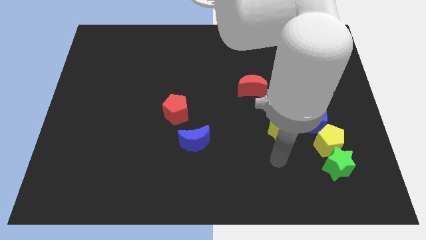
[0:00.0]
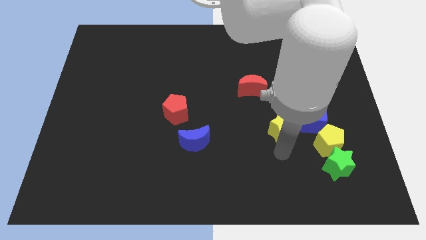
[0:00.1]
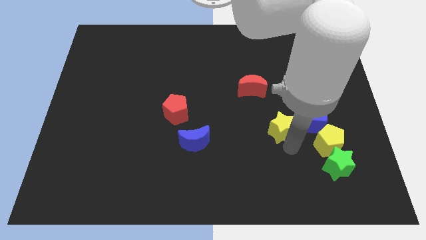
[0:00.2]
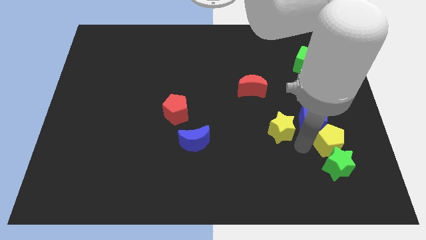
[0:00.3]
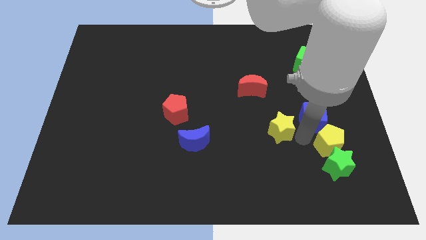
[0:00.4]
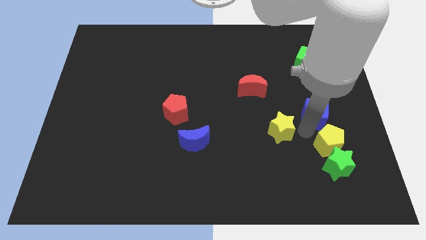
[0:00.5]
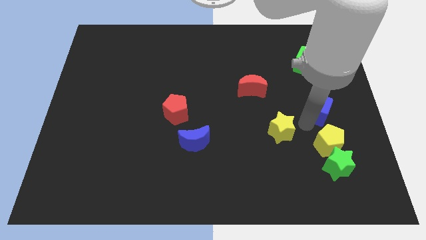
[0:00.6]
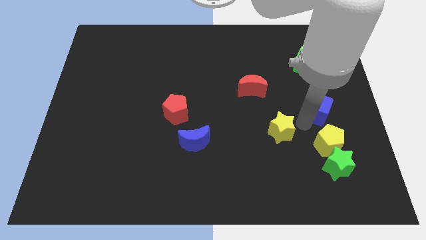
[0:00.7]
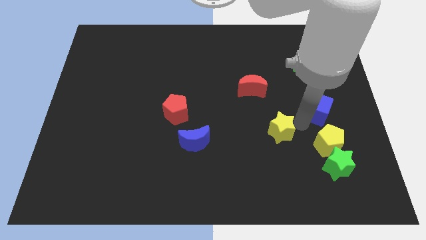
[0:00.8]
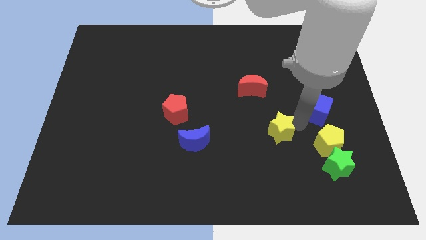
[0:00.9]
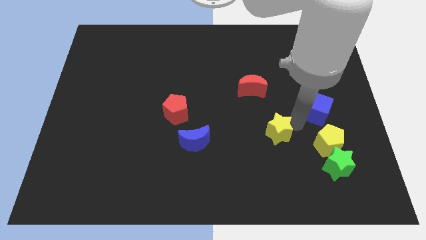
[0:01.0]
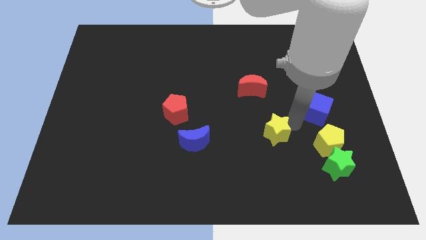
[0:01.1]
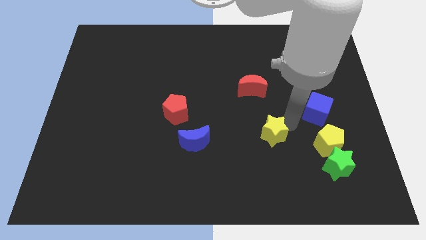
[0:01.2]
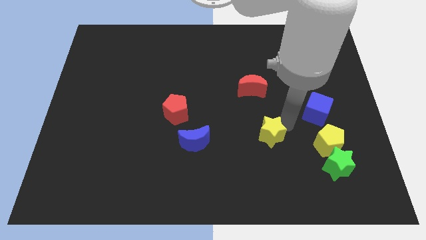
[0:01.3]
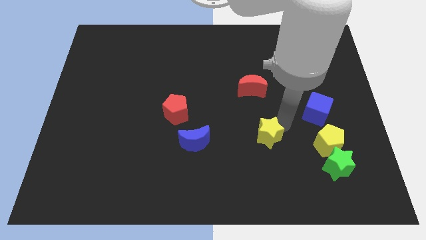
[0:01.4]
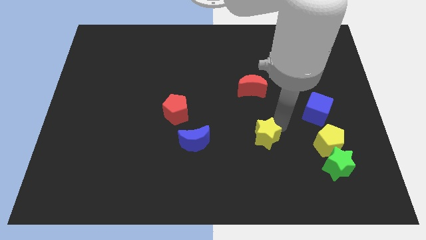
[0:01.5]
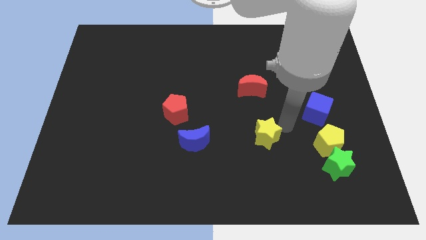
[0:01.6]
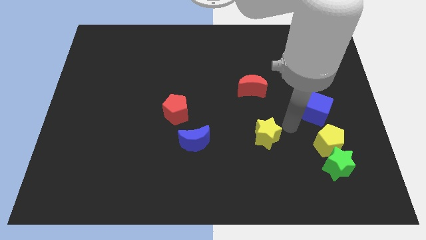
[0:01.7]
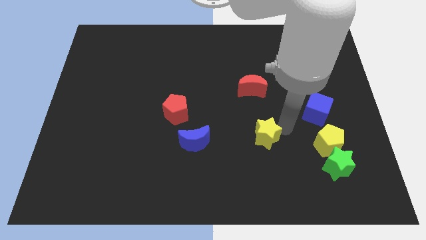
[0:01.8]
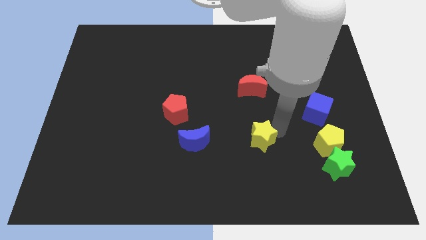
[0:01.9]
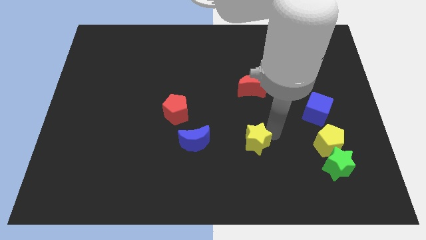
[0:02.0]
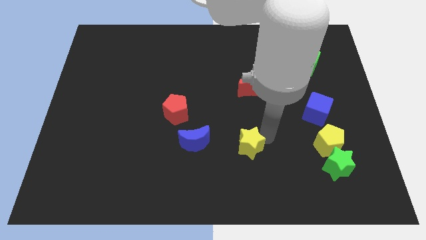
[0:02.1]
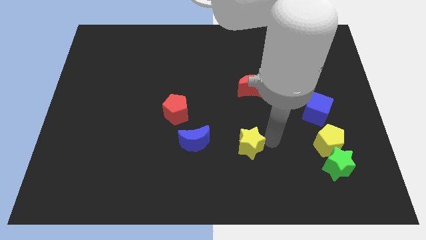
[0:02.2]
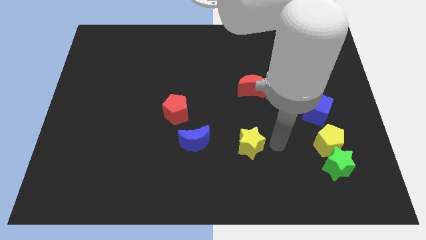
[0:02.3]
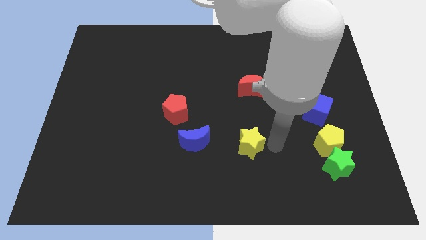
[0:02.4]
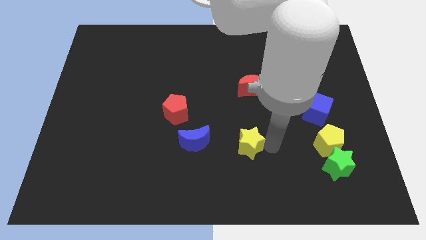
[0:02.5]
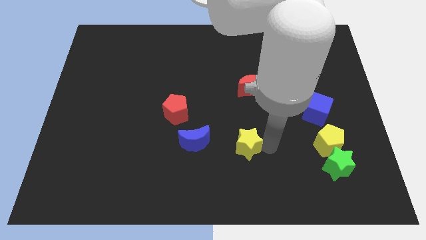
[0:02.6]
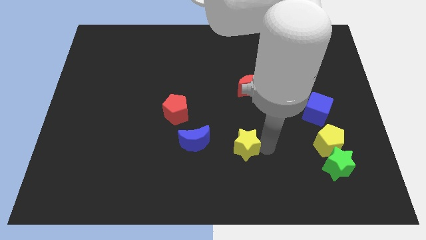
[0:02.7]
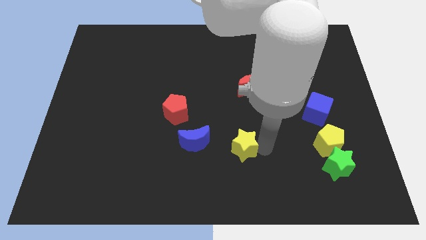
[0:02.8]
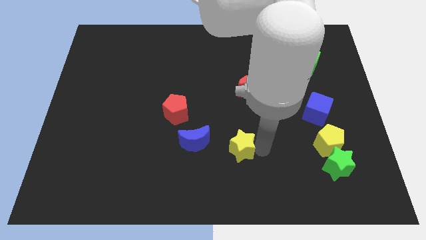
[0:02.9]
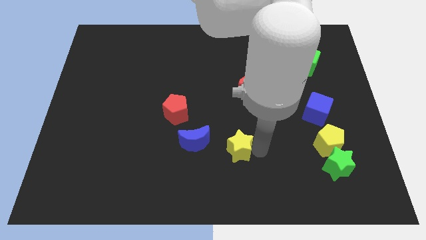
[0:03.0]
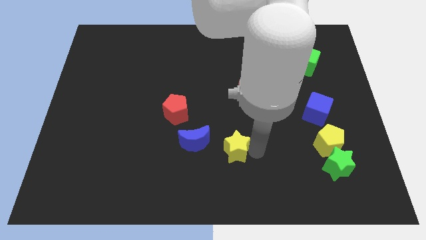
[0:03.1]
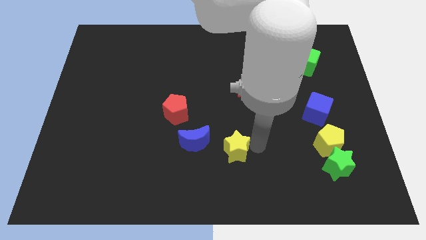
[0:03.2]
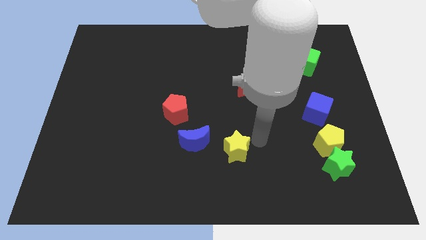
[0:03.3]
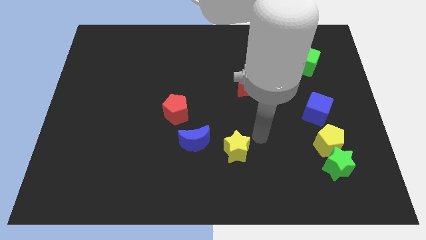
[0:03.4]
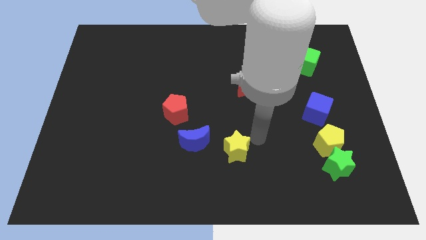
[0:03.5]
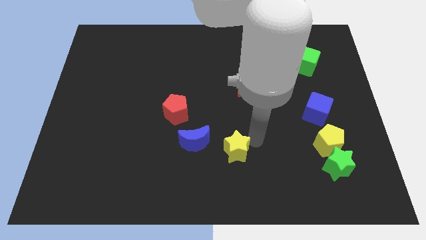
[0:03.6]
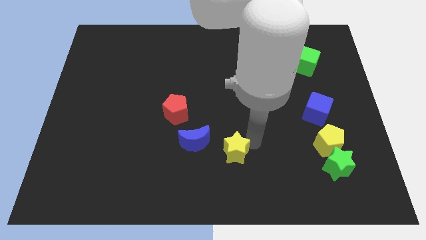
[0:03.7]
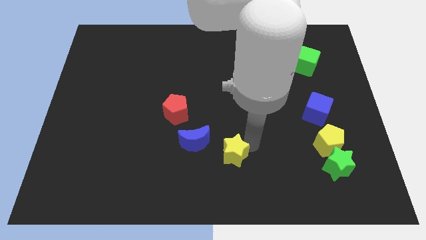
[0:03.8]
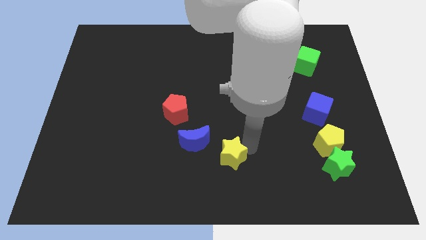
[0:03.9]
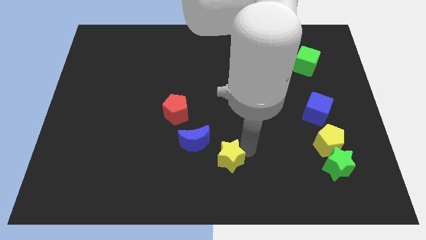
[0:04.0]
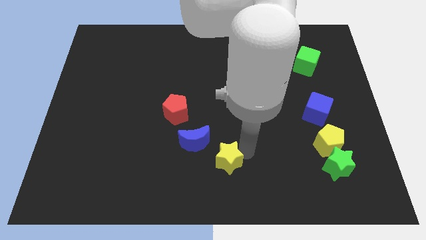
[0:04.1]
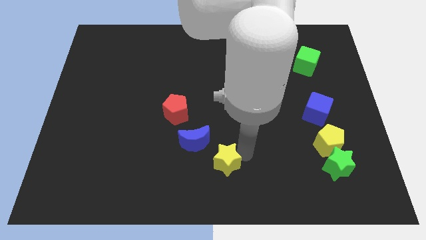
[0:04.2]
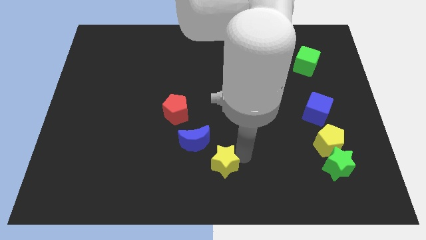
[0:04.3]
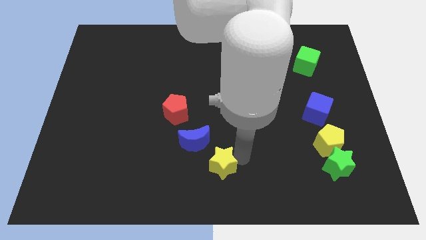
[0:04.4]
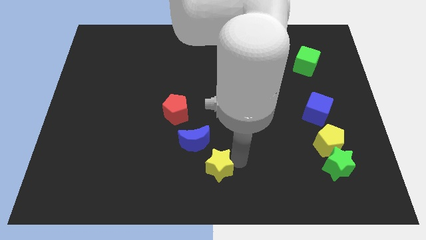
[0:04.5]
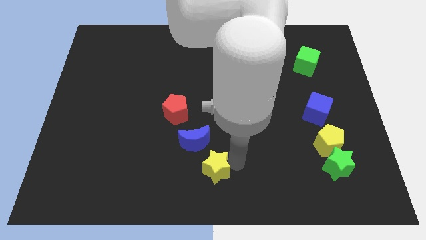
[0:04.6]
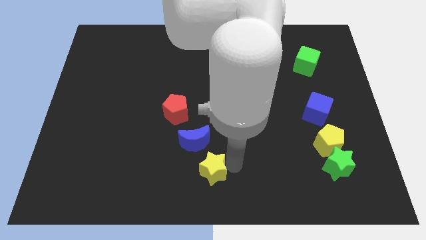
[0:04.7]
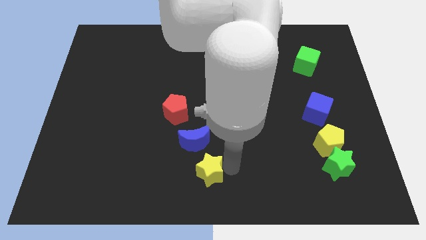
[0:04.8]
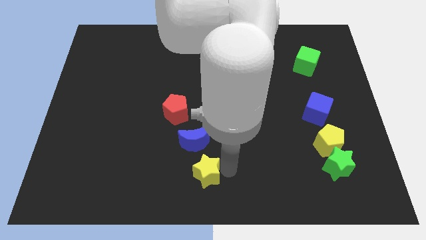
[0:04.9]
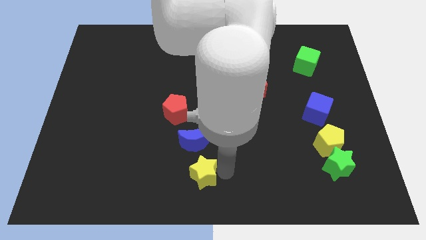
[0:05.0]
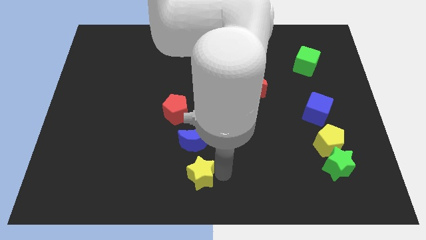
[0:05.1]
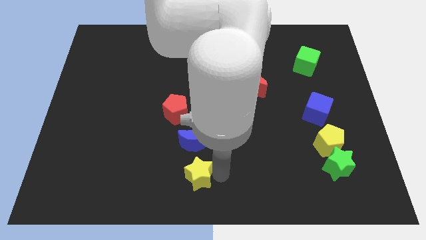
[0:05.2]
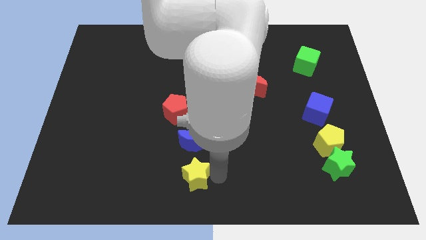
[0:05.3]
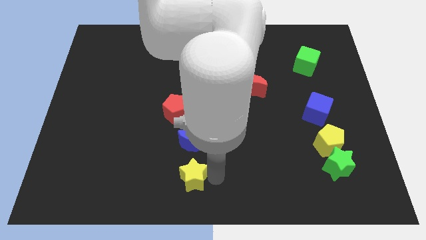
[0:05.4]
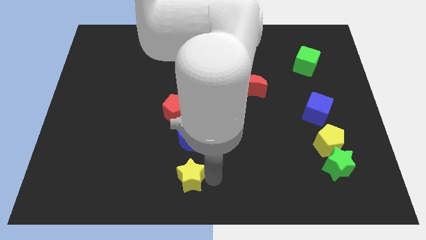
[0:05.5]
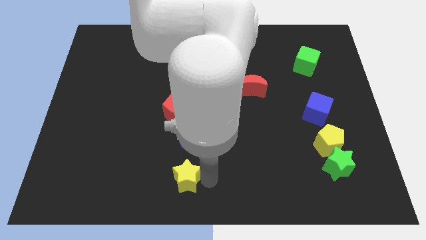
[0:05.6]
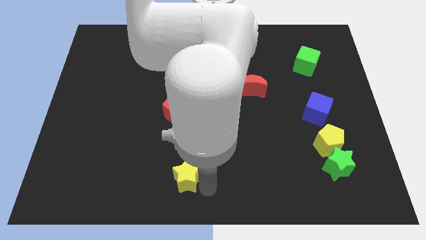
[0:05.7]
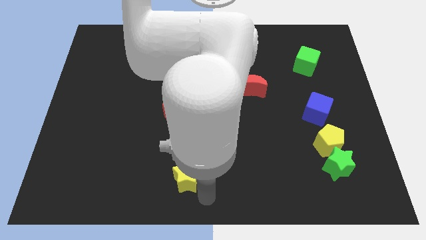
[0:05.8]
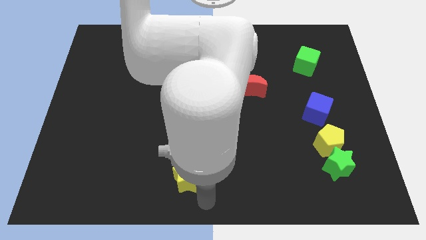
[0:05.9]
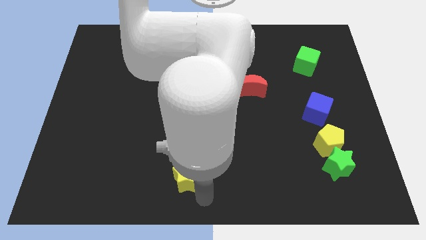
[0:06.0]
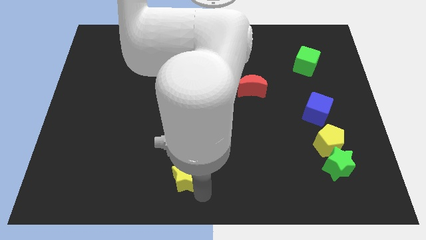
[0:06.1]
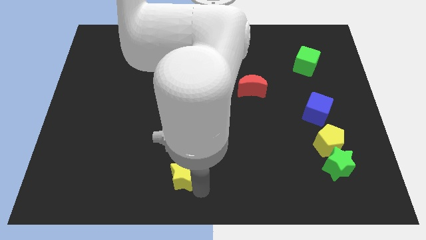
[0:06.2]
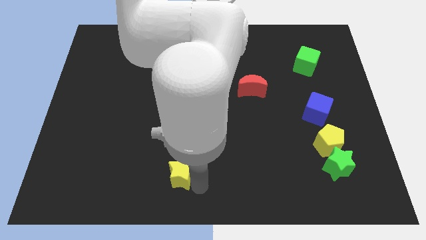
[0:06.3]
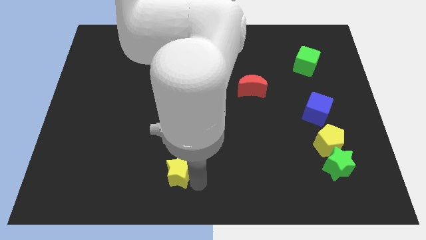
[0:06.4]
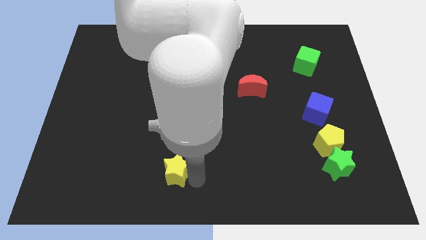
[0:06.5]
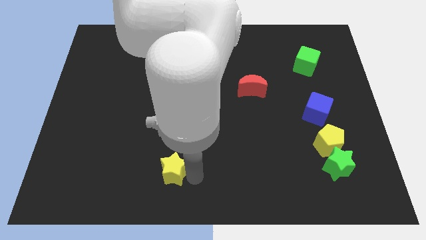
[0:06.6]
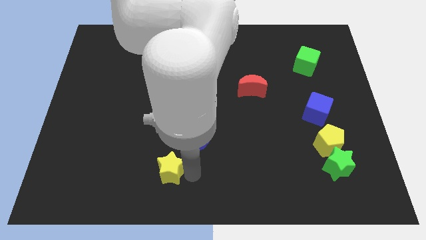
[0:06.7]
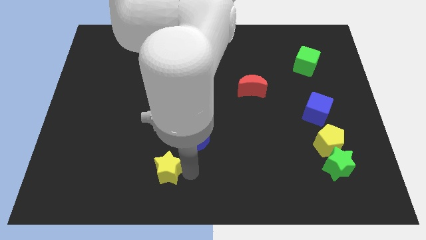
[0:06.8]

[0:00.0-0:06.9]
slide the yellow star left

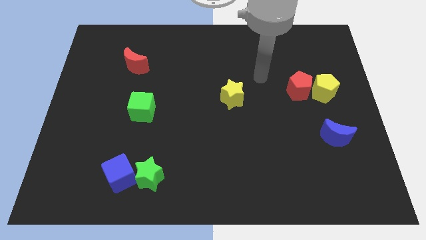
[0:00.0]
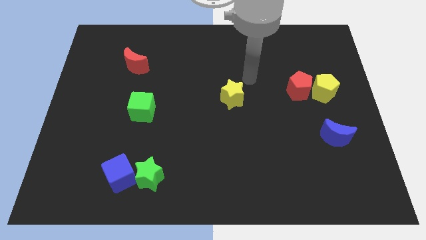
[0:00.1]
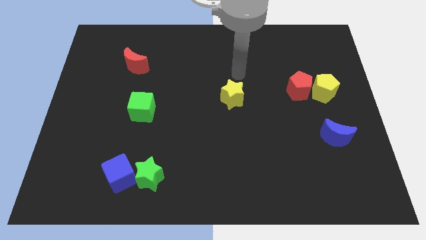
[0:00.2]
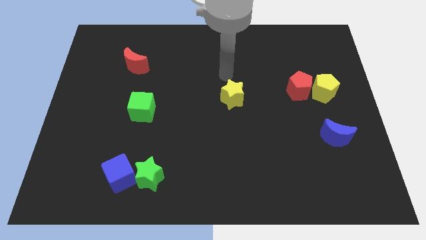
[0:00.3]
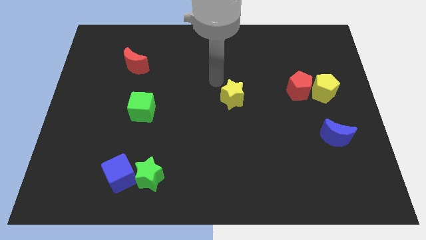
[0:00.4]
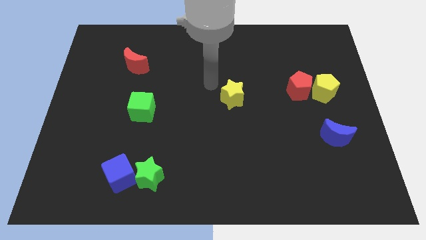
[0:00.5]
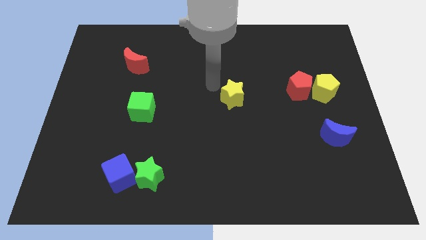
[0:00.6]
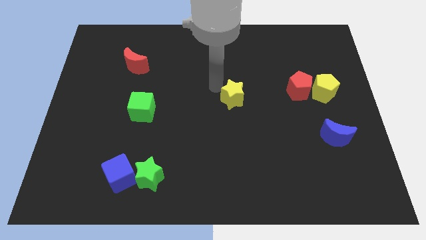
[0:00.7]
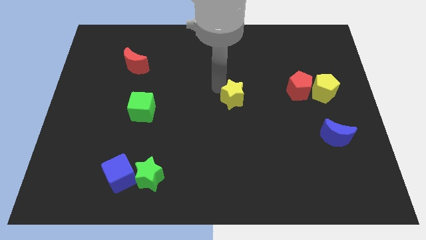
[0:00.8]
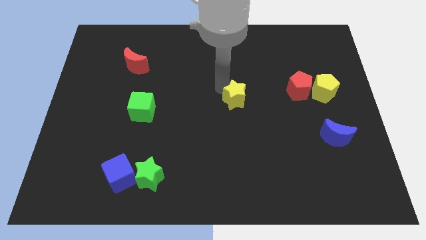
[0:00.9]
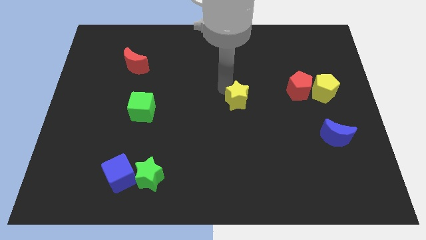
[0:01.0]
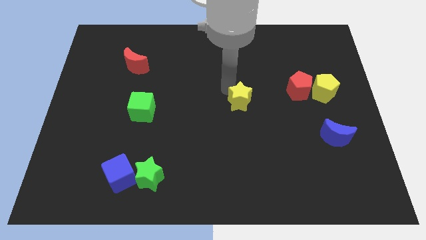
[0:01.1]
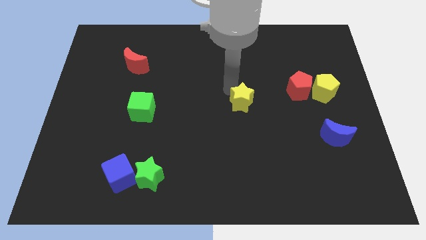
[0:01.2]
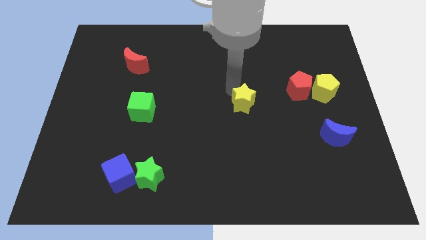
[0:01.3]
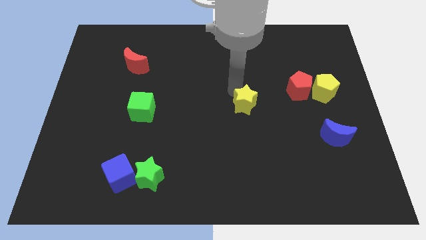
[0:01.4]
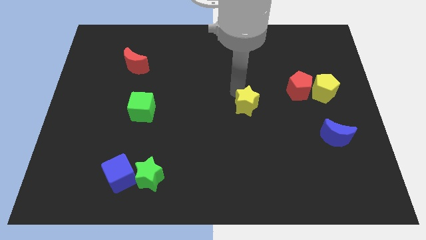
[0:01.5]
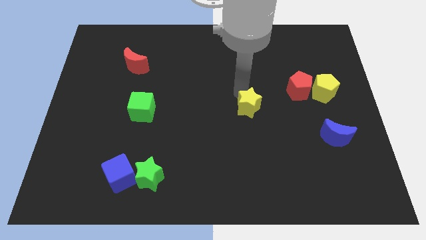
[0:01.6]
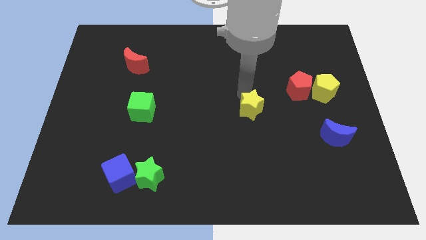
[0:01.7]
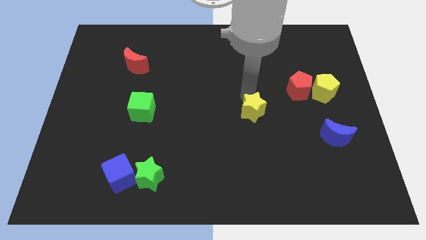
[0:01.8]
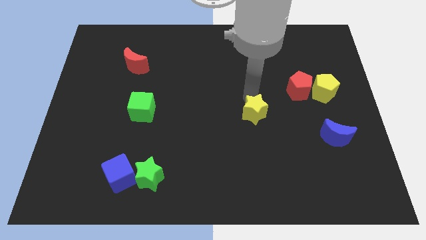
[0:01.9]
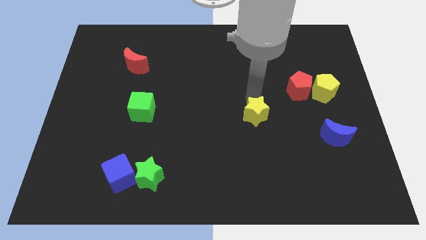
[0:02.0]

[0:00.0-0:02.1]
push the yellow star downwards and to the right diagonally somewhat
